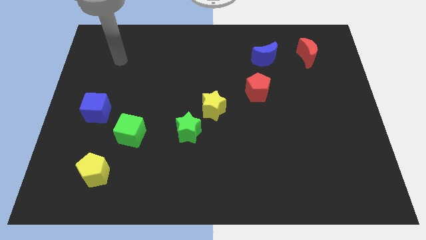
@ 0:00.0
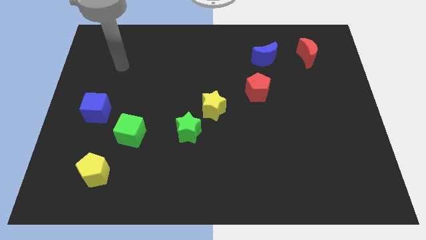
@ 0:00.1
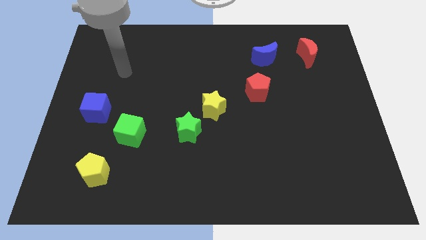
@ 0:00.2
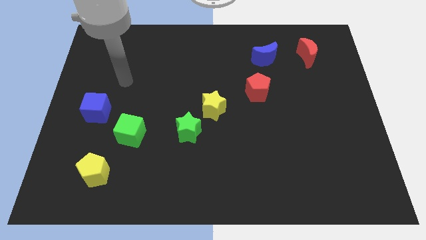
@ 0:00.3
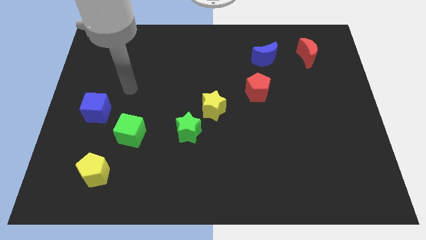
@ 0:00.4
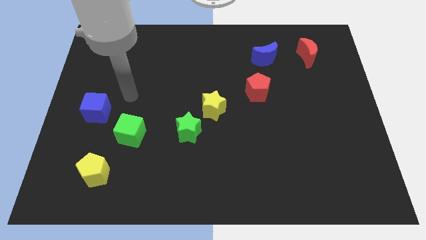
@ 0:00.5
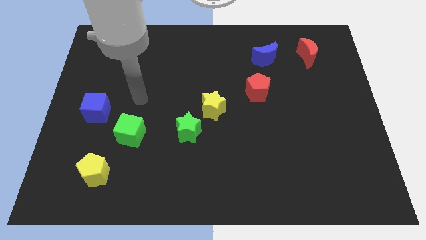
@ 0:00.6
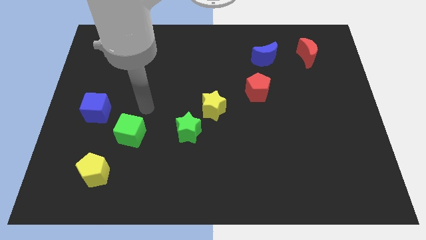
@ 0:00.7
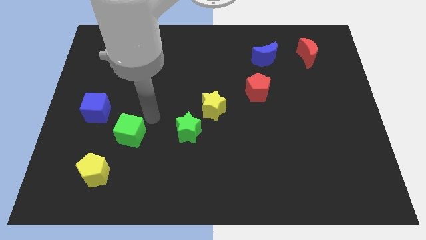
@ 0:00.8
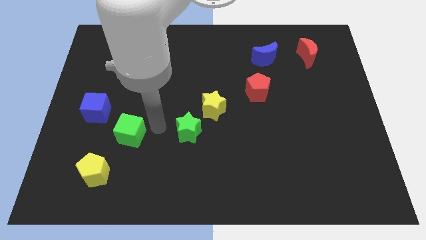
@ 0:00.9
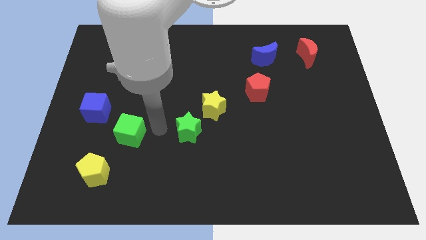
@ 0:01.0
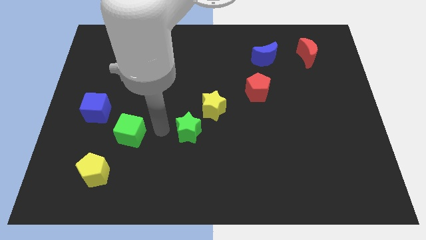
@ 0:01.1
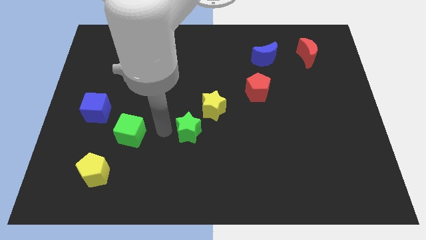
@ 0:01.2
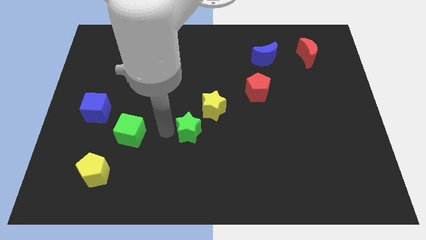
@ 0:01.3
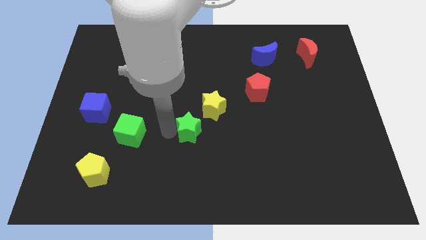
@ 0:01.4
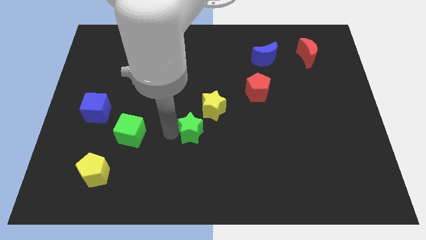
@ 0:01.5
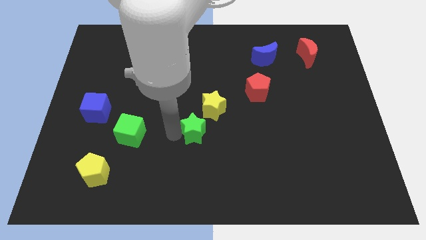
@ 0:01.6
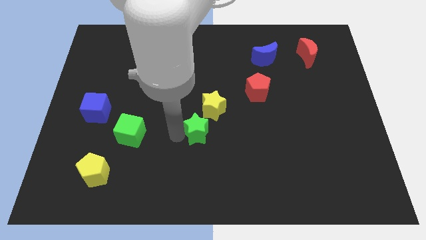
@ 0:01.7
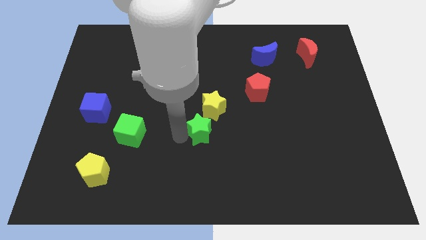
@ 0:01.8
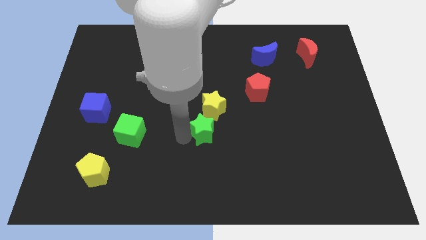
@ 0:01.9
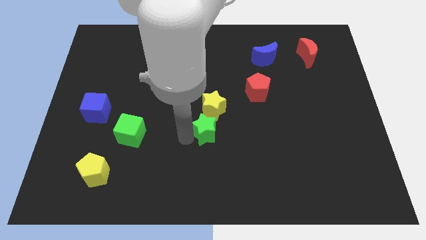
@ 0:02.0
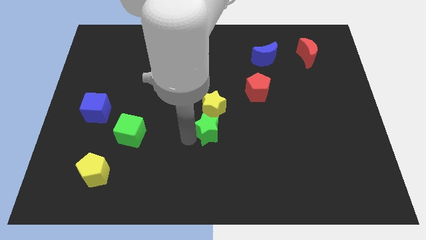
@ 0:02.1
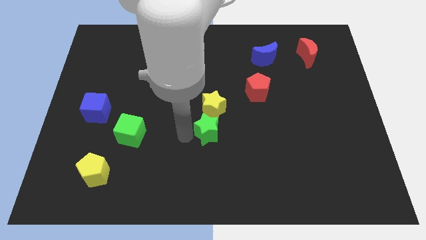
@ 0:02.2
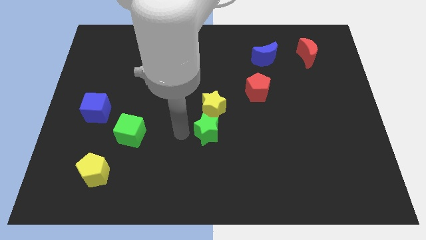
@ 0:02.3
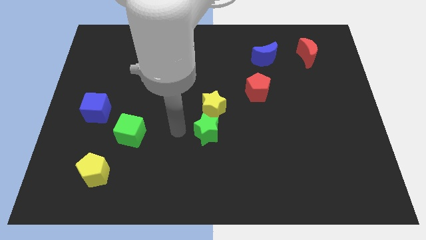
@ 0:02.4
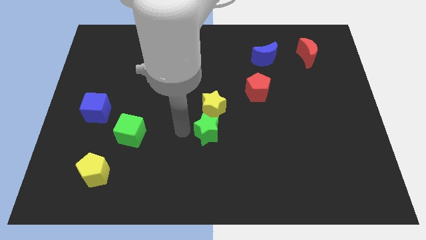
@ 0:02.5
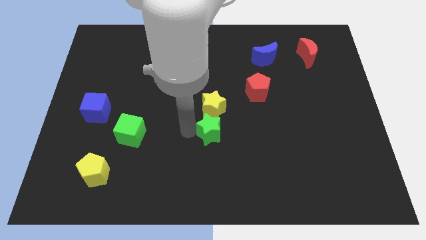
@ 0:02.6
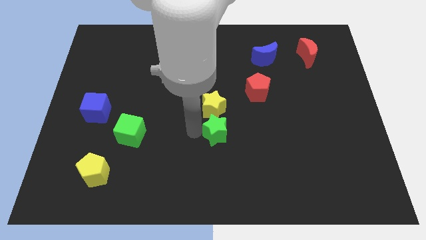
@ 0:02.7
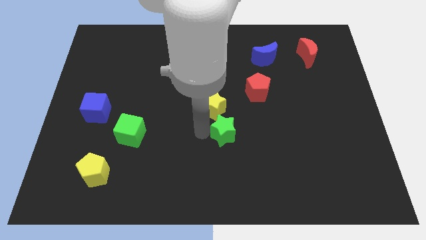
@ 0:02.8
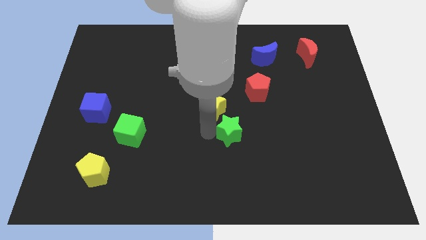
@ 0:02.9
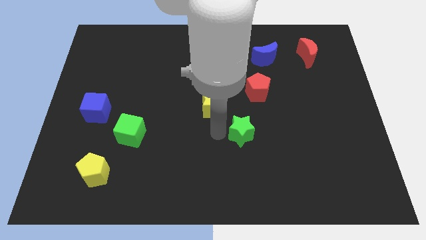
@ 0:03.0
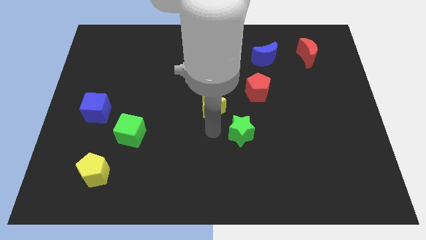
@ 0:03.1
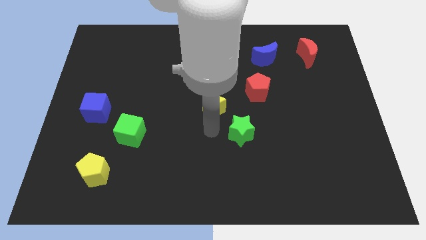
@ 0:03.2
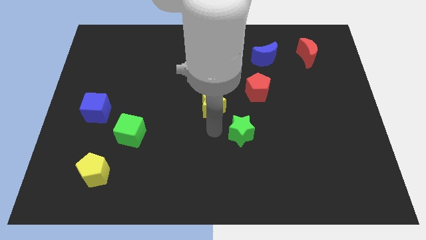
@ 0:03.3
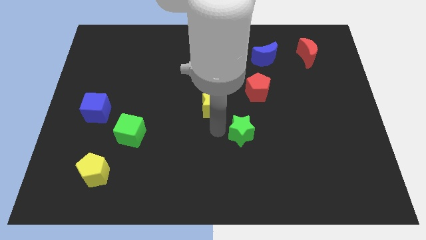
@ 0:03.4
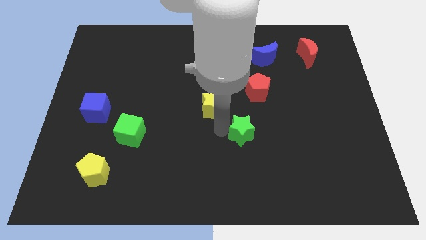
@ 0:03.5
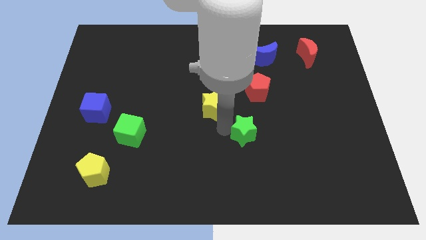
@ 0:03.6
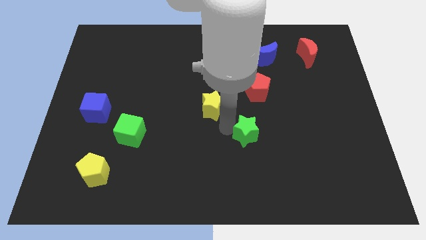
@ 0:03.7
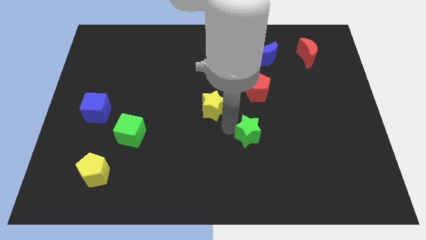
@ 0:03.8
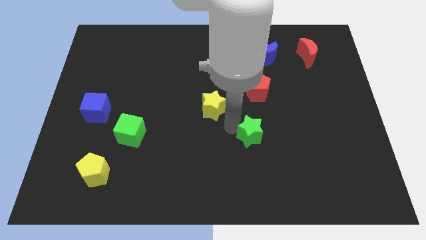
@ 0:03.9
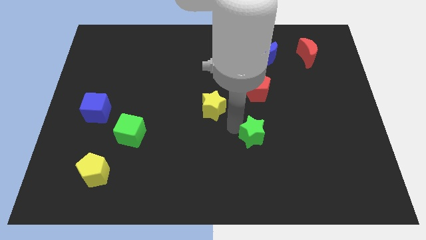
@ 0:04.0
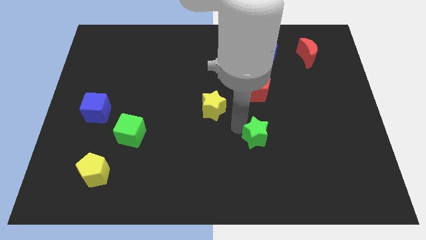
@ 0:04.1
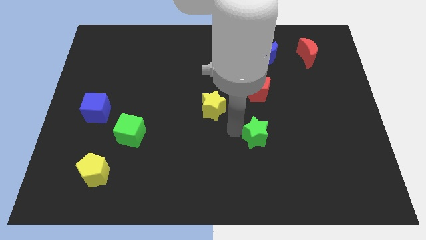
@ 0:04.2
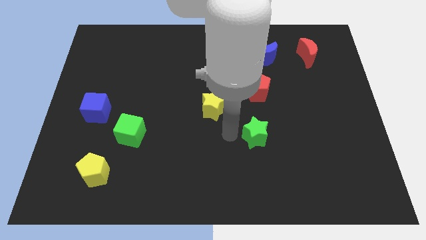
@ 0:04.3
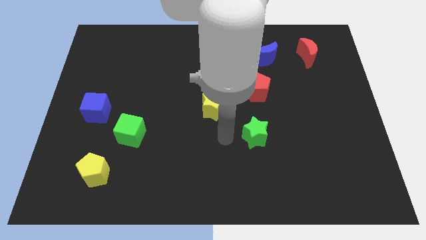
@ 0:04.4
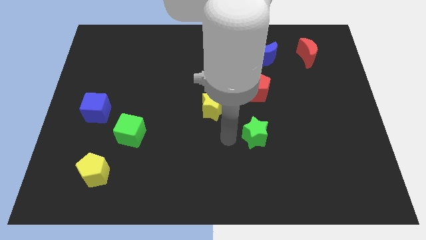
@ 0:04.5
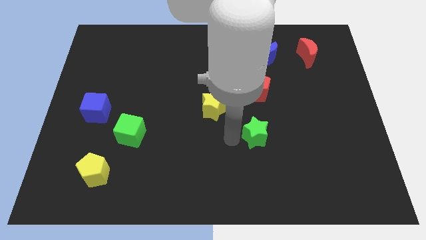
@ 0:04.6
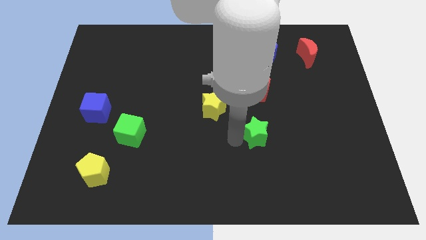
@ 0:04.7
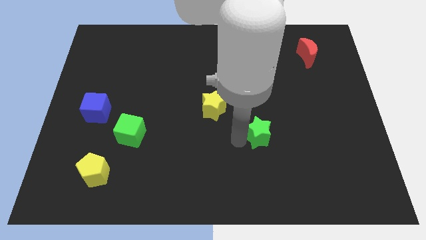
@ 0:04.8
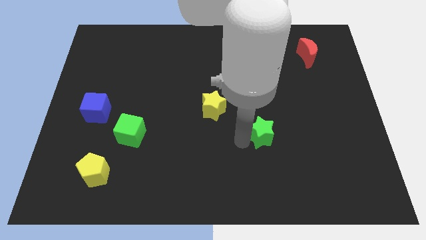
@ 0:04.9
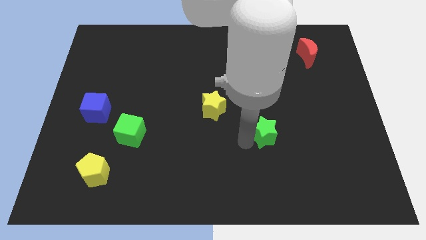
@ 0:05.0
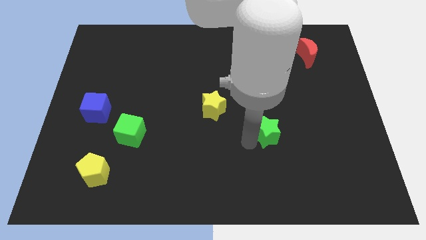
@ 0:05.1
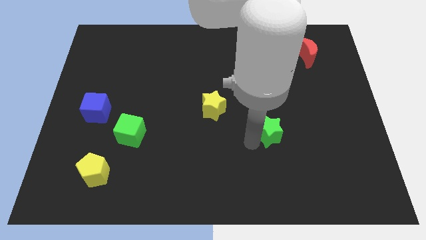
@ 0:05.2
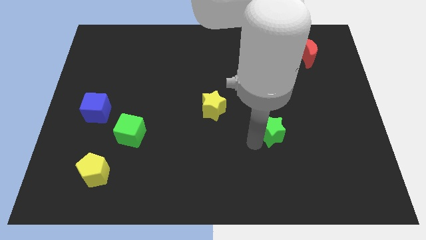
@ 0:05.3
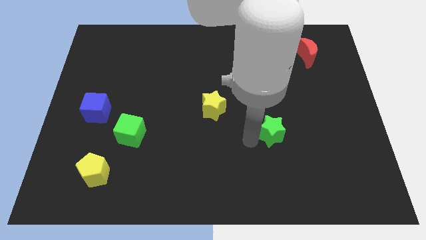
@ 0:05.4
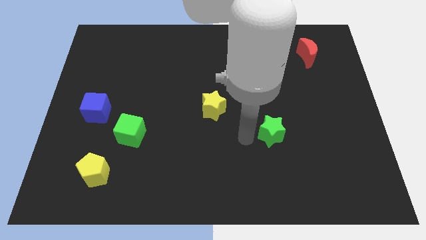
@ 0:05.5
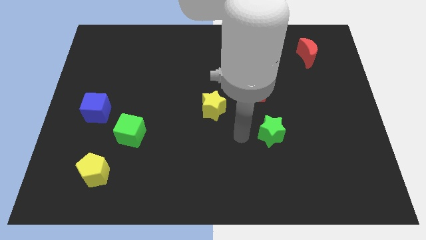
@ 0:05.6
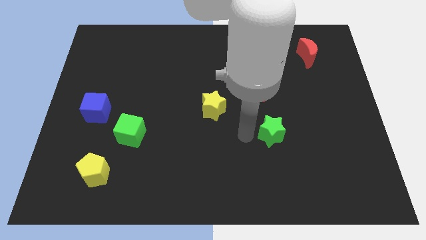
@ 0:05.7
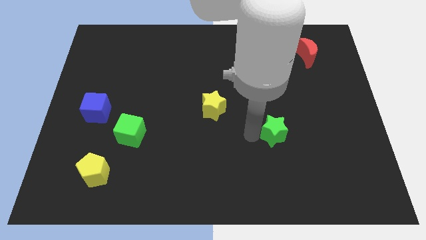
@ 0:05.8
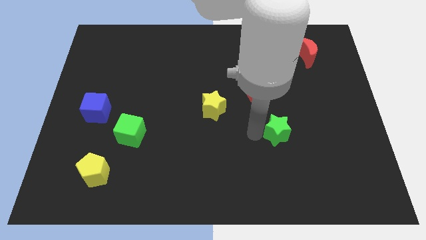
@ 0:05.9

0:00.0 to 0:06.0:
move the green star right

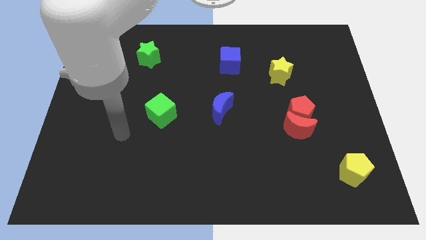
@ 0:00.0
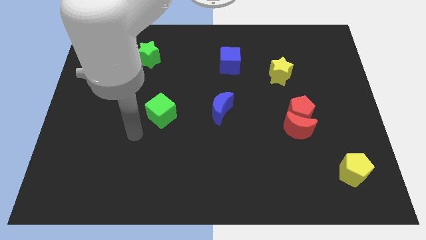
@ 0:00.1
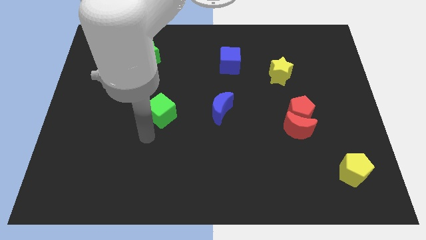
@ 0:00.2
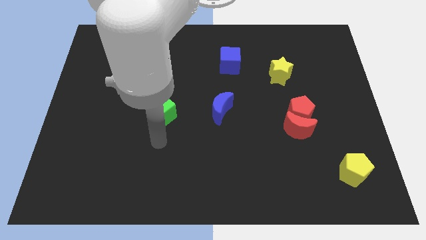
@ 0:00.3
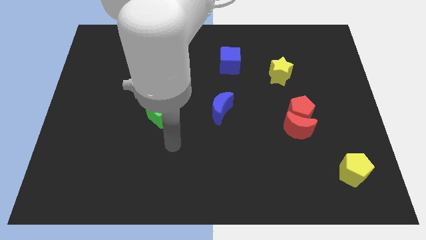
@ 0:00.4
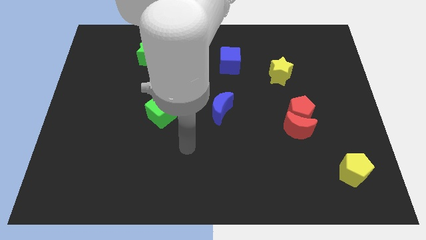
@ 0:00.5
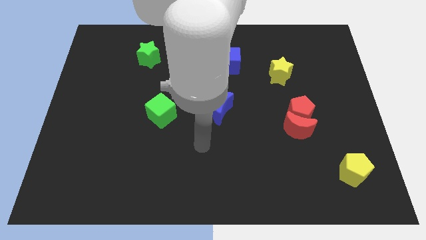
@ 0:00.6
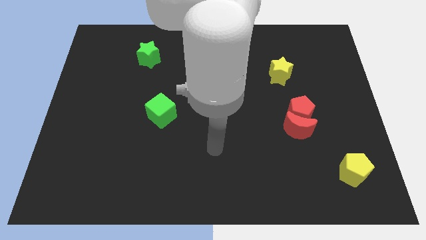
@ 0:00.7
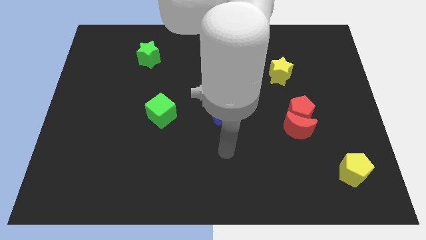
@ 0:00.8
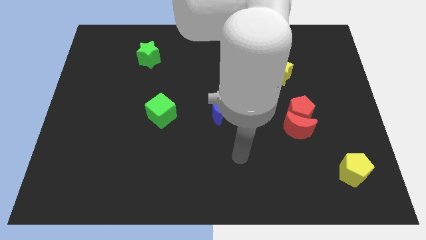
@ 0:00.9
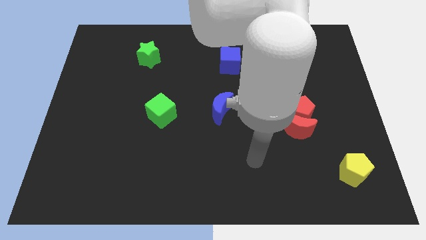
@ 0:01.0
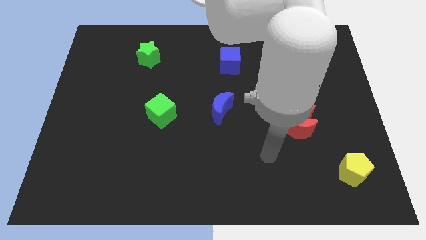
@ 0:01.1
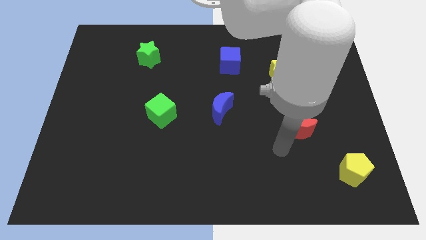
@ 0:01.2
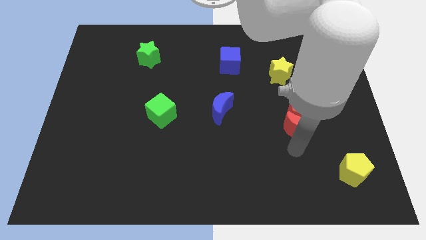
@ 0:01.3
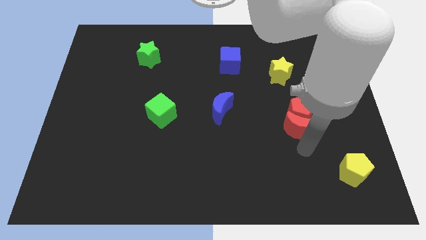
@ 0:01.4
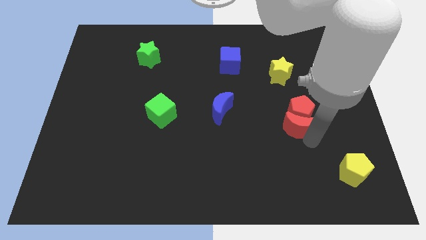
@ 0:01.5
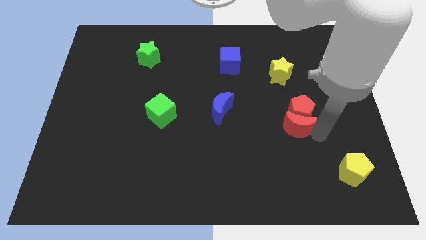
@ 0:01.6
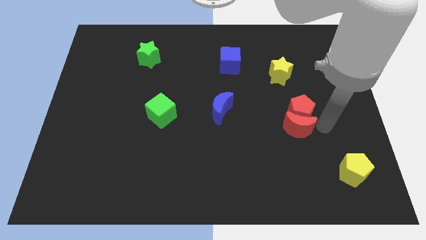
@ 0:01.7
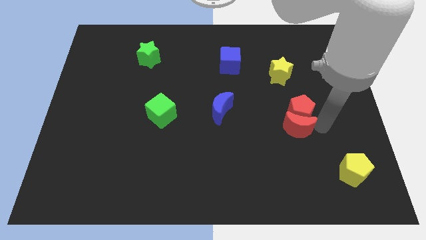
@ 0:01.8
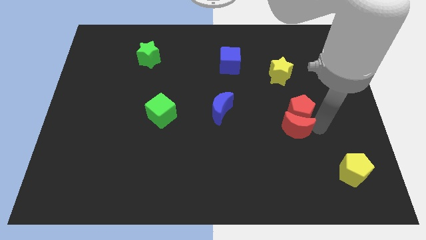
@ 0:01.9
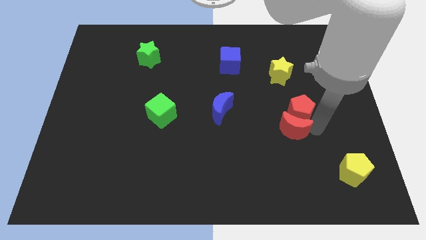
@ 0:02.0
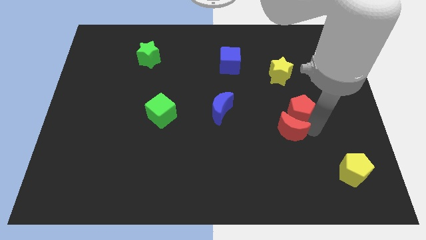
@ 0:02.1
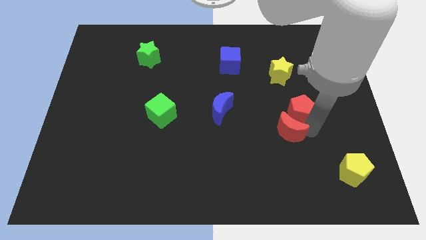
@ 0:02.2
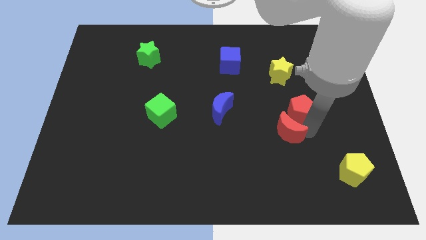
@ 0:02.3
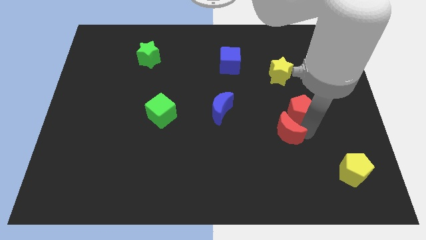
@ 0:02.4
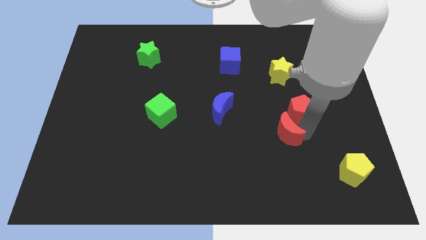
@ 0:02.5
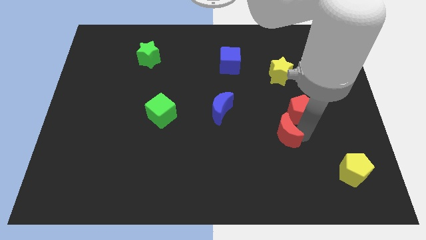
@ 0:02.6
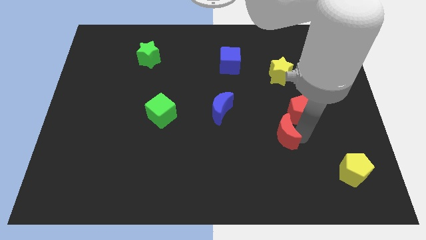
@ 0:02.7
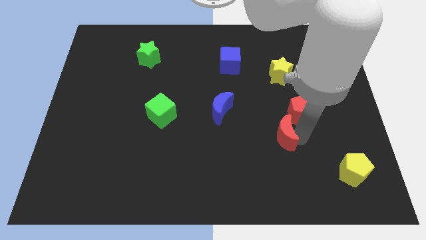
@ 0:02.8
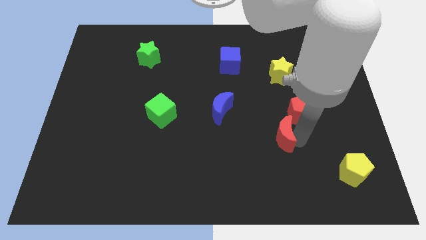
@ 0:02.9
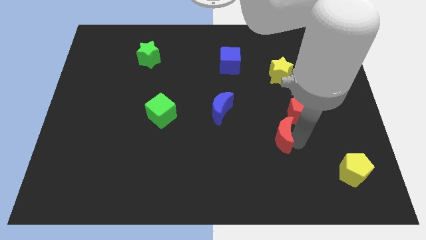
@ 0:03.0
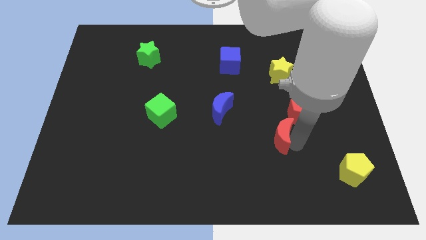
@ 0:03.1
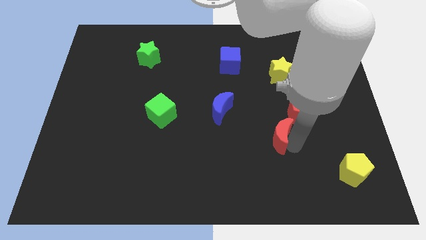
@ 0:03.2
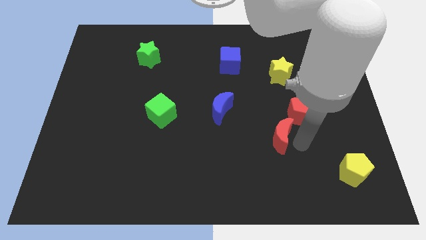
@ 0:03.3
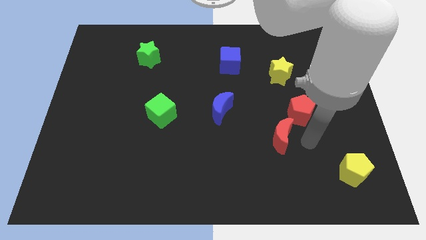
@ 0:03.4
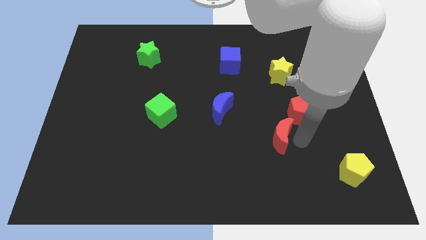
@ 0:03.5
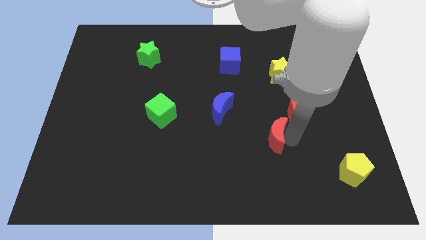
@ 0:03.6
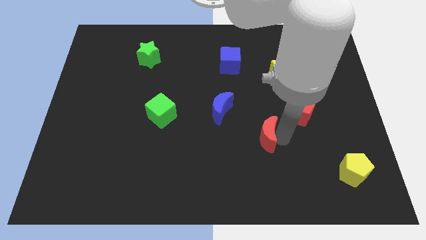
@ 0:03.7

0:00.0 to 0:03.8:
slightly push the red moon to the left
